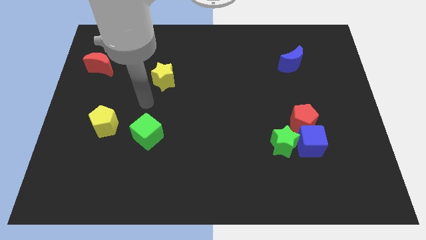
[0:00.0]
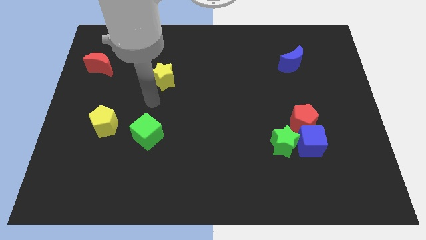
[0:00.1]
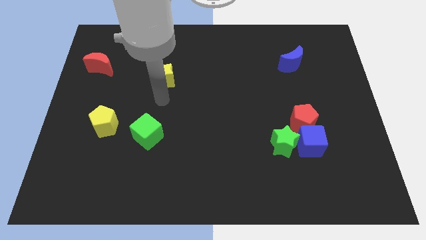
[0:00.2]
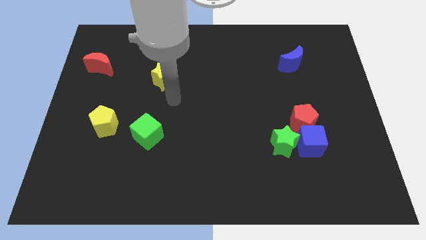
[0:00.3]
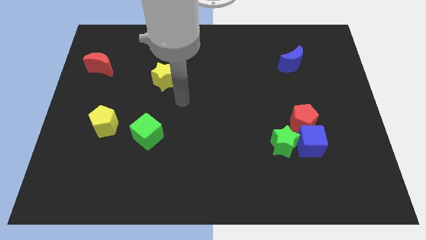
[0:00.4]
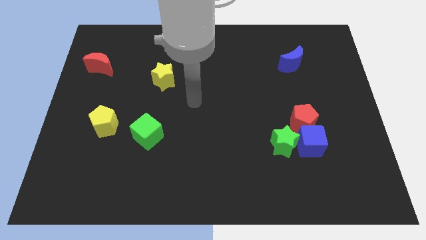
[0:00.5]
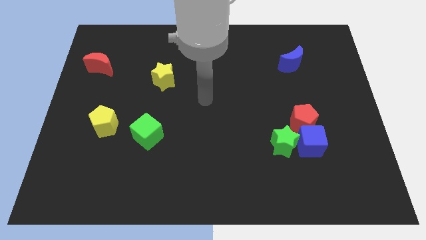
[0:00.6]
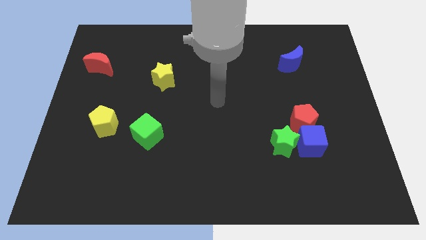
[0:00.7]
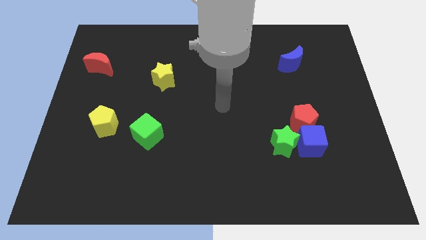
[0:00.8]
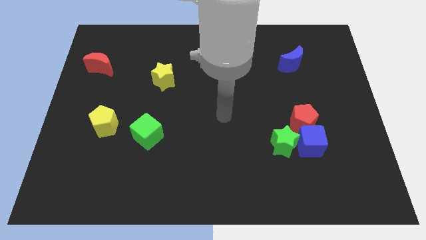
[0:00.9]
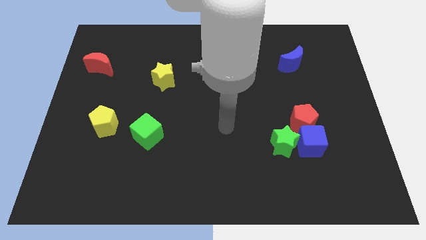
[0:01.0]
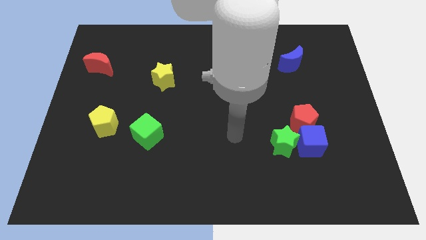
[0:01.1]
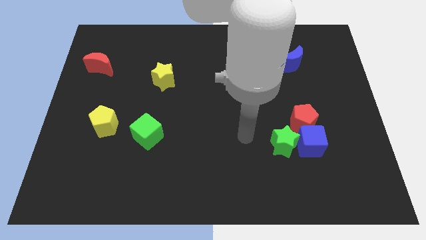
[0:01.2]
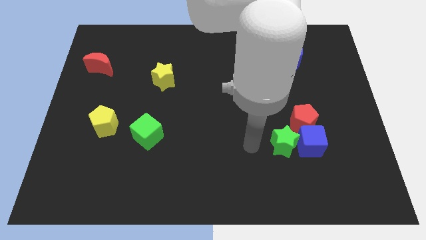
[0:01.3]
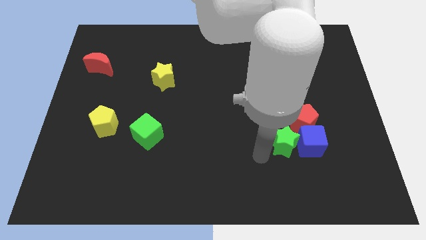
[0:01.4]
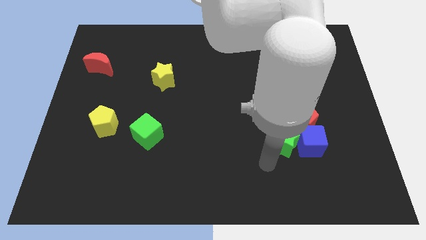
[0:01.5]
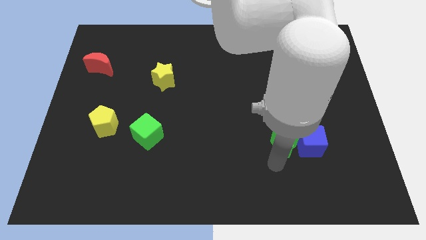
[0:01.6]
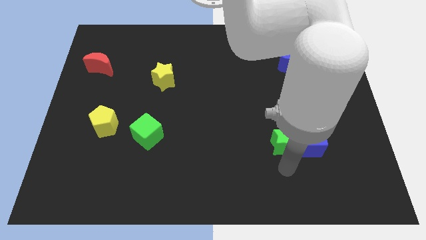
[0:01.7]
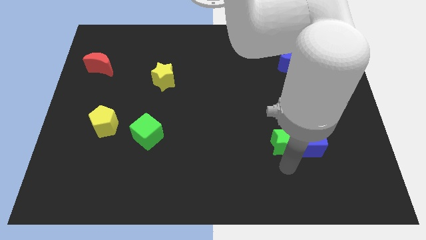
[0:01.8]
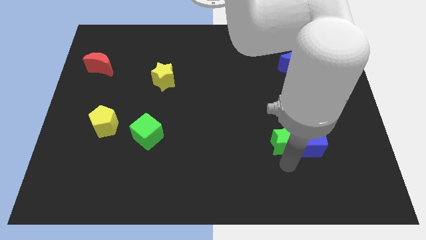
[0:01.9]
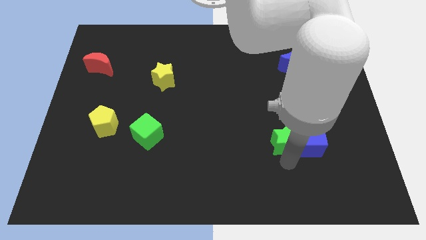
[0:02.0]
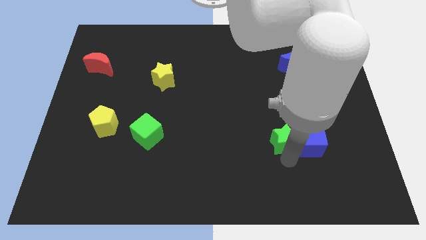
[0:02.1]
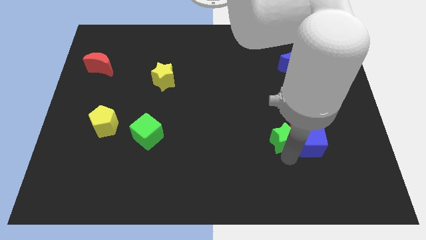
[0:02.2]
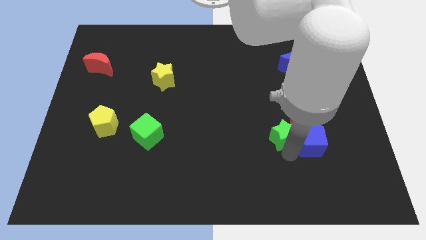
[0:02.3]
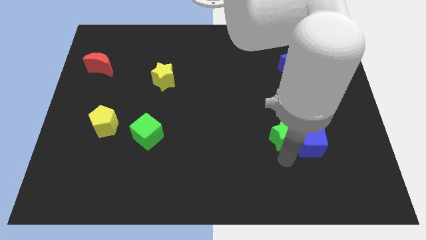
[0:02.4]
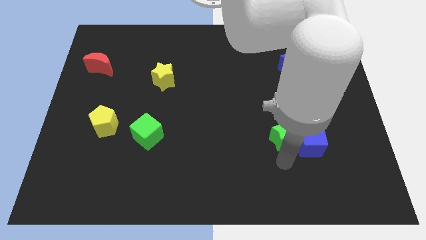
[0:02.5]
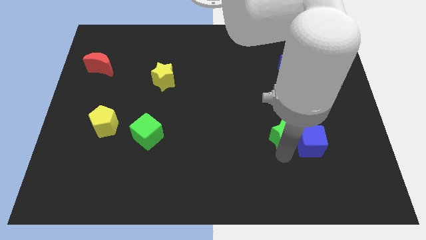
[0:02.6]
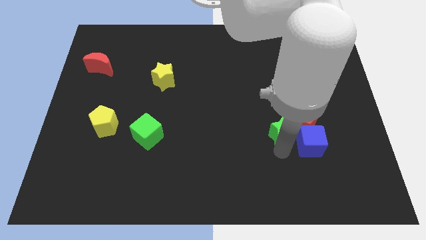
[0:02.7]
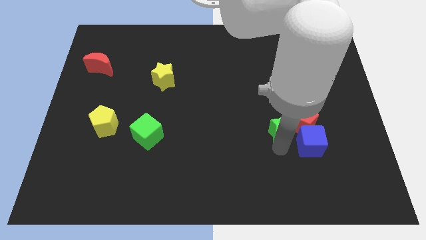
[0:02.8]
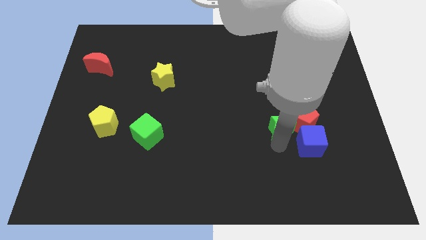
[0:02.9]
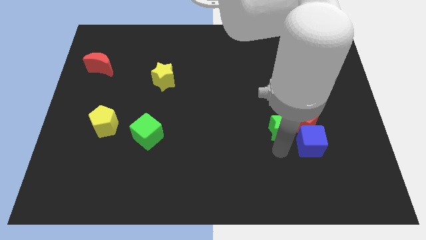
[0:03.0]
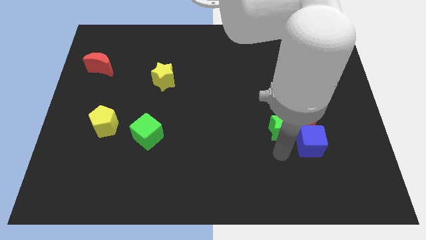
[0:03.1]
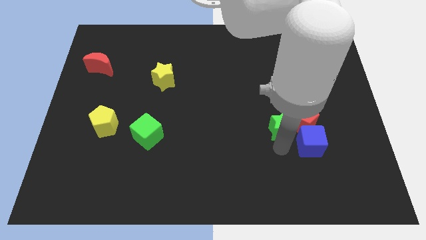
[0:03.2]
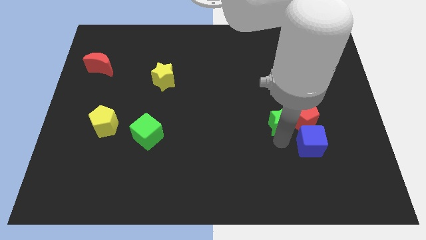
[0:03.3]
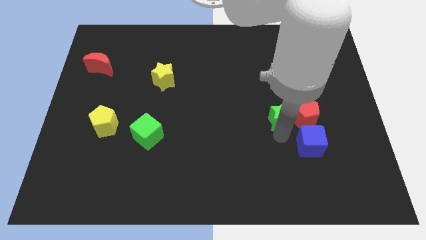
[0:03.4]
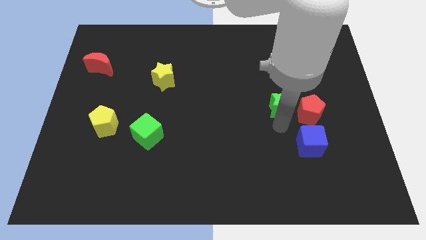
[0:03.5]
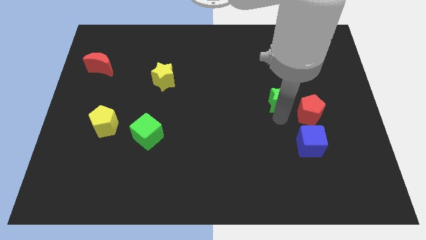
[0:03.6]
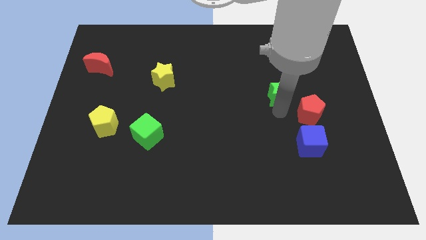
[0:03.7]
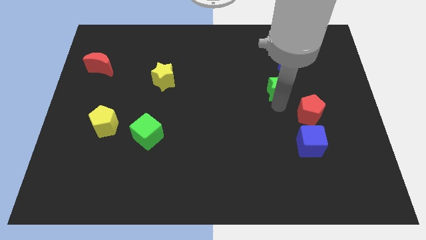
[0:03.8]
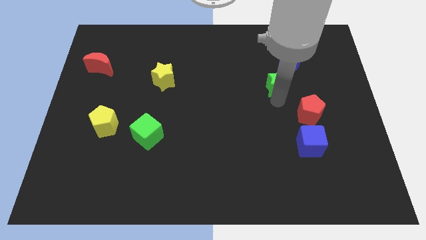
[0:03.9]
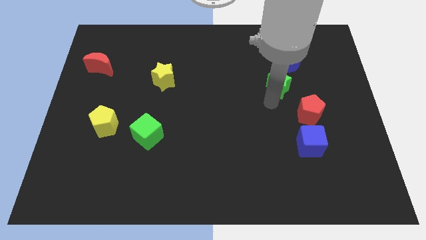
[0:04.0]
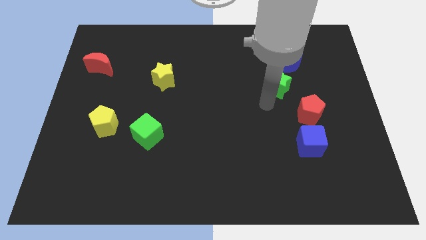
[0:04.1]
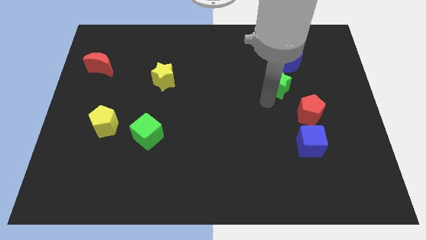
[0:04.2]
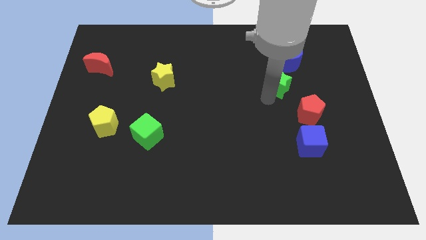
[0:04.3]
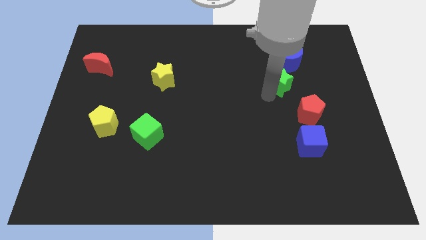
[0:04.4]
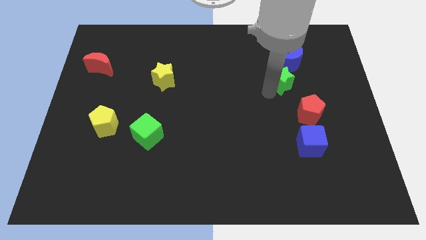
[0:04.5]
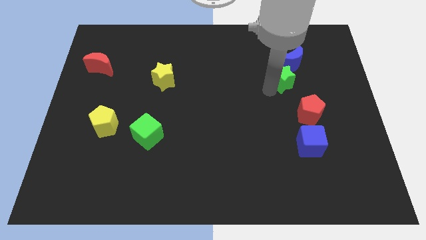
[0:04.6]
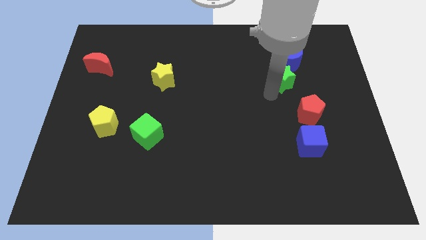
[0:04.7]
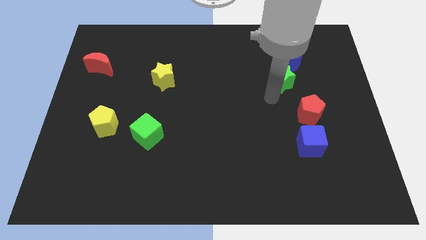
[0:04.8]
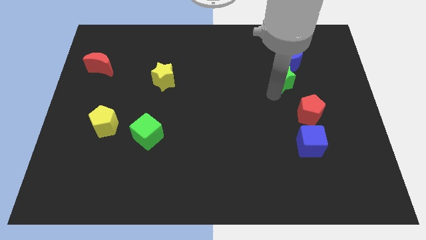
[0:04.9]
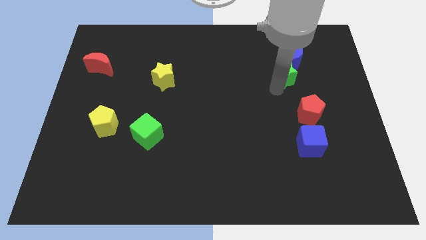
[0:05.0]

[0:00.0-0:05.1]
push the green star close to the blue moon

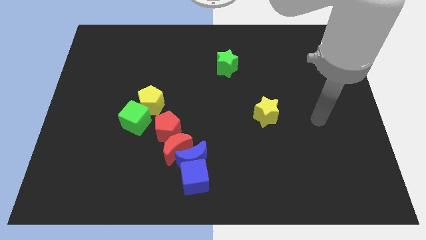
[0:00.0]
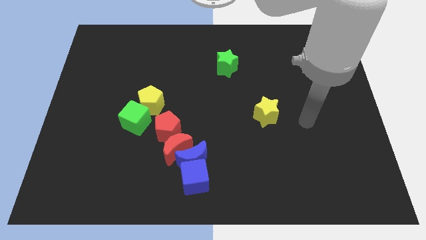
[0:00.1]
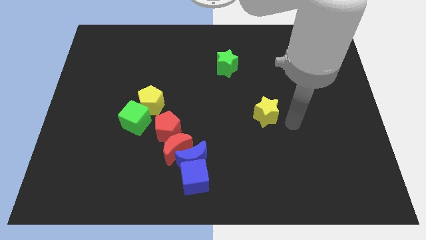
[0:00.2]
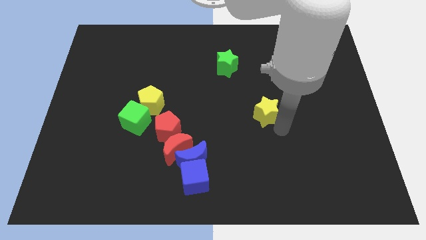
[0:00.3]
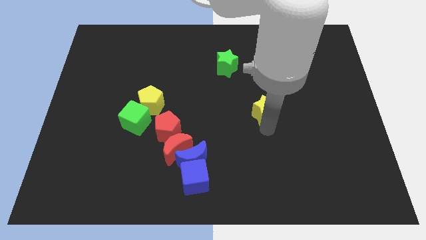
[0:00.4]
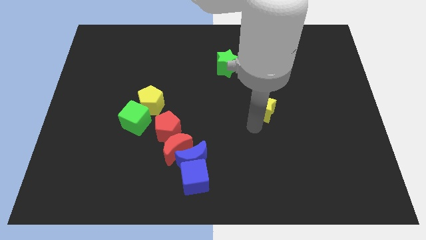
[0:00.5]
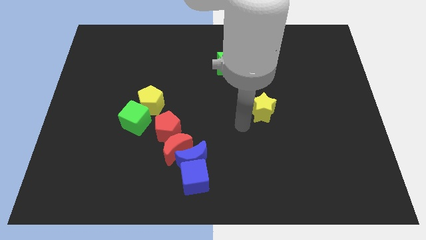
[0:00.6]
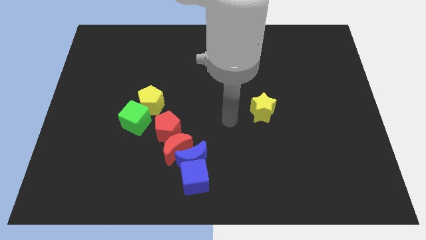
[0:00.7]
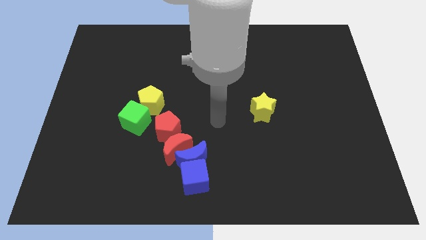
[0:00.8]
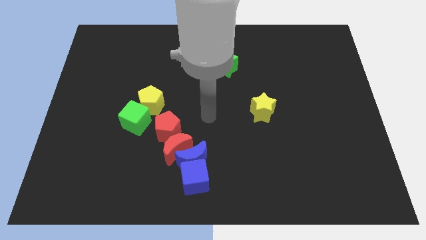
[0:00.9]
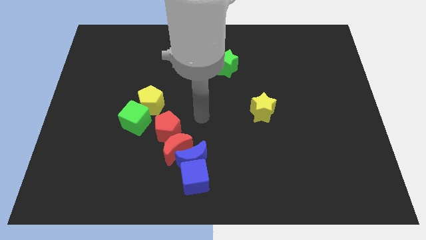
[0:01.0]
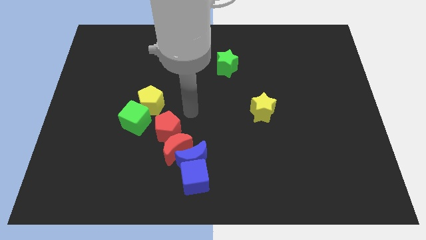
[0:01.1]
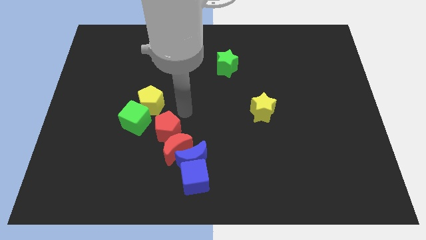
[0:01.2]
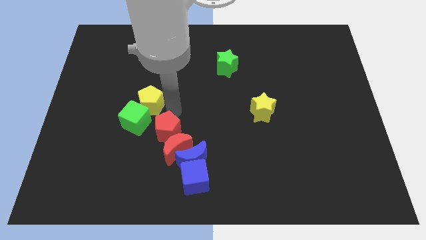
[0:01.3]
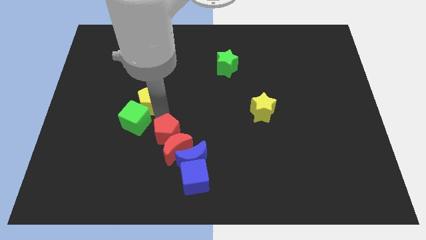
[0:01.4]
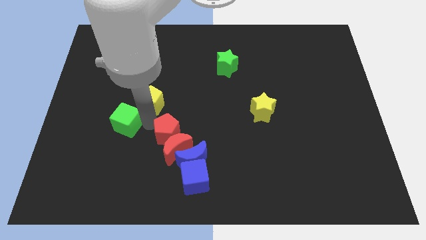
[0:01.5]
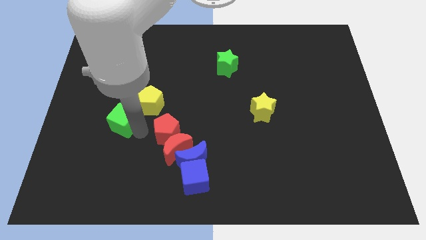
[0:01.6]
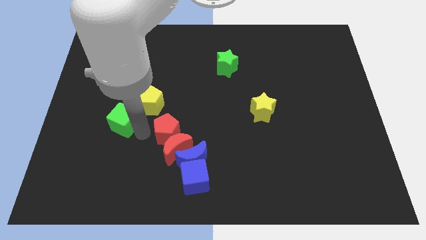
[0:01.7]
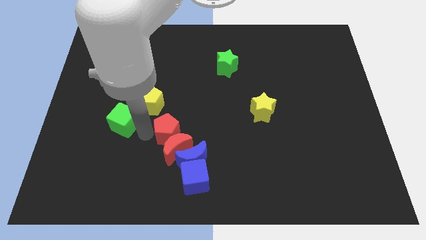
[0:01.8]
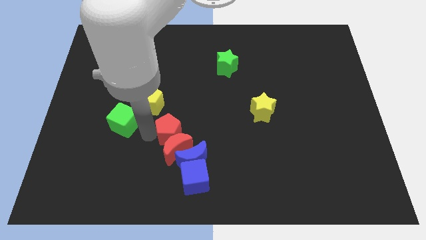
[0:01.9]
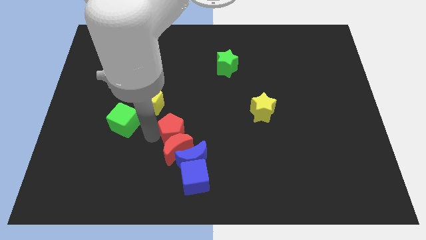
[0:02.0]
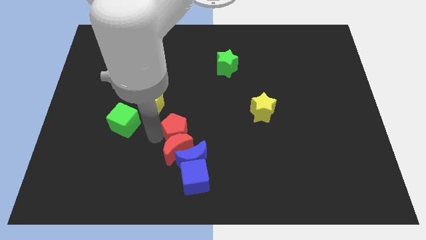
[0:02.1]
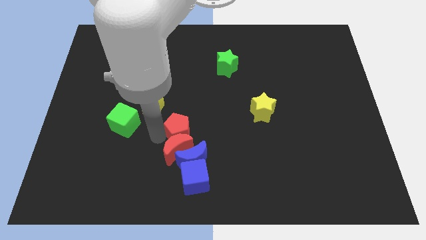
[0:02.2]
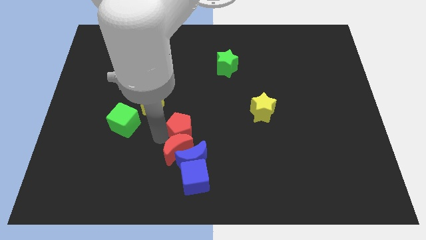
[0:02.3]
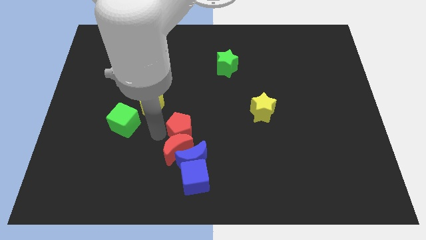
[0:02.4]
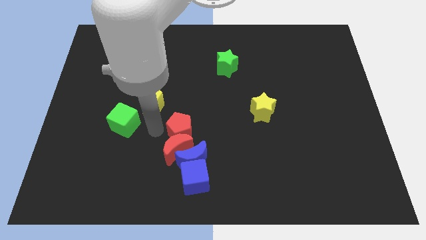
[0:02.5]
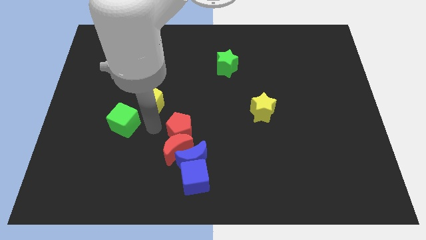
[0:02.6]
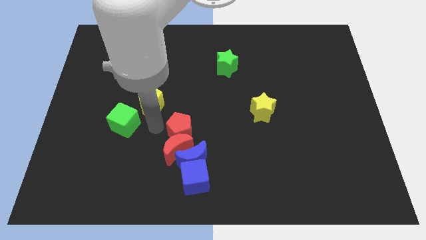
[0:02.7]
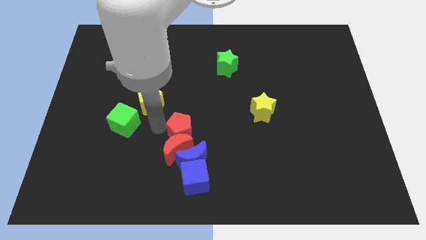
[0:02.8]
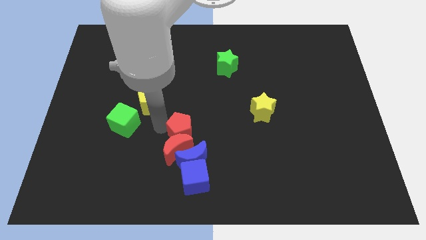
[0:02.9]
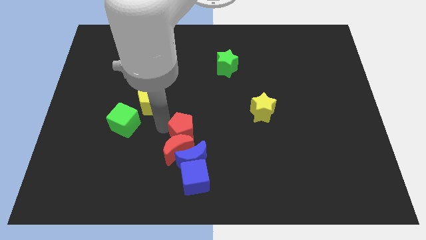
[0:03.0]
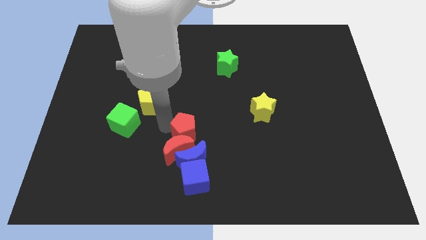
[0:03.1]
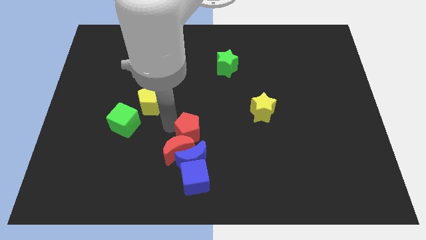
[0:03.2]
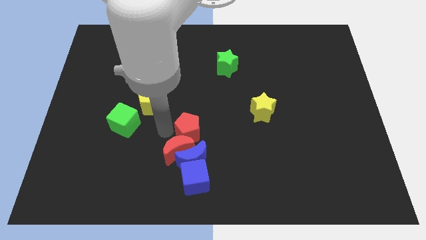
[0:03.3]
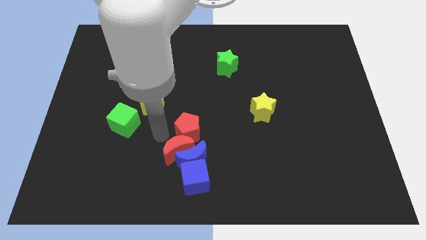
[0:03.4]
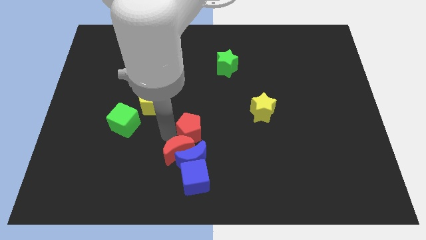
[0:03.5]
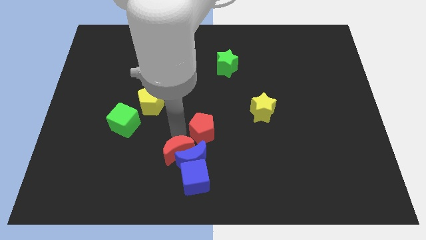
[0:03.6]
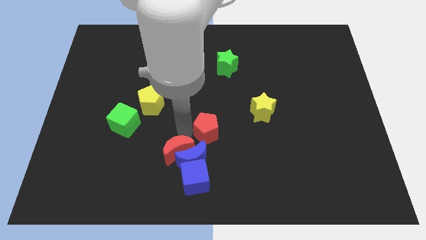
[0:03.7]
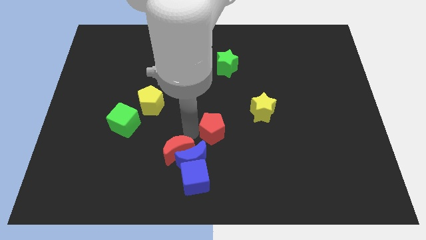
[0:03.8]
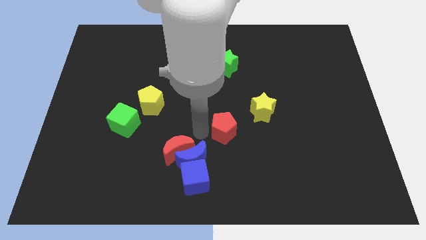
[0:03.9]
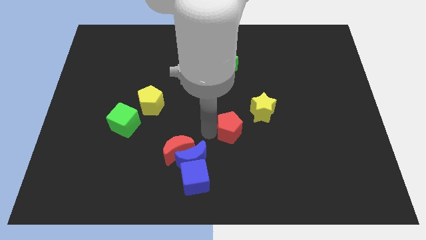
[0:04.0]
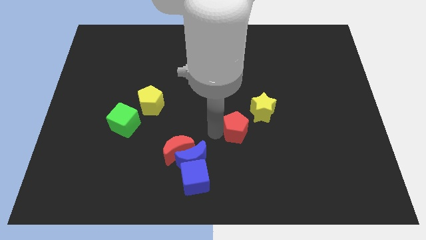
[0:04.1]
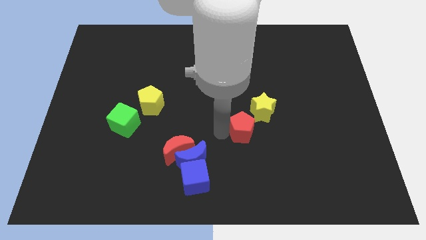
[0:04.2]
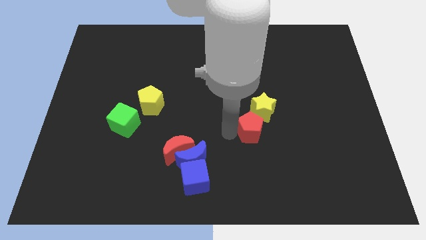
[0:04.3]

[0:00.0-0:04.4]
push the red pentagon to the yellow star
